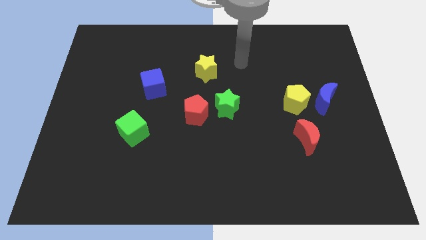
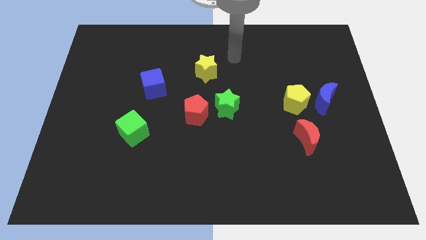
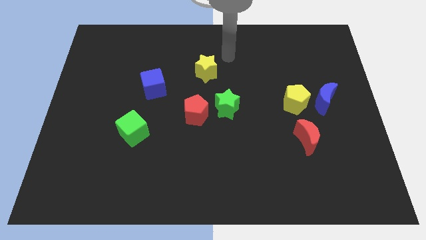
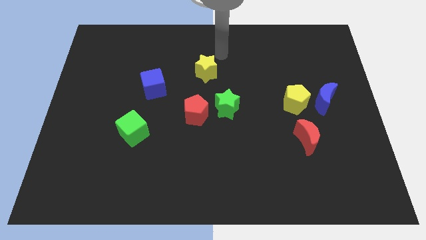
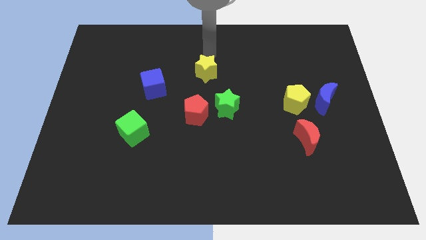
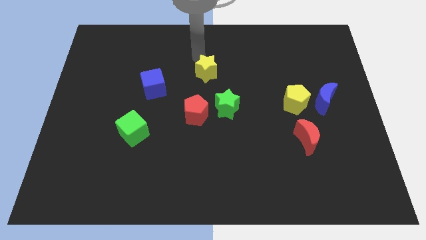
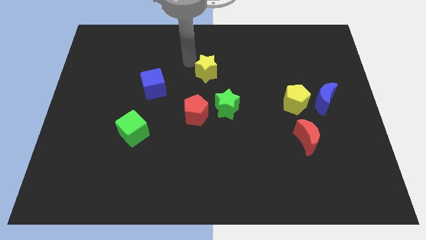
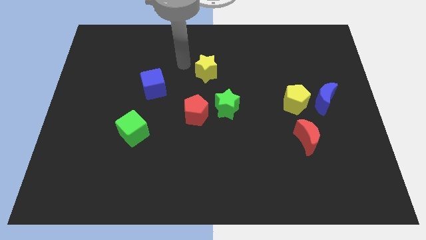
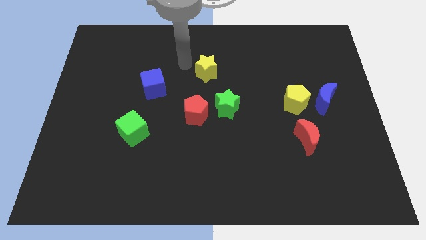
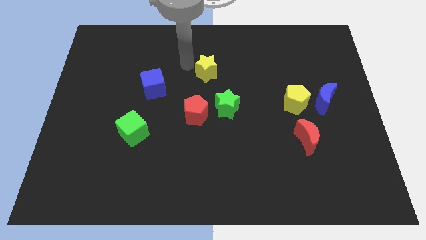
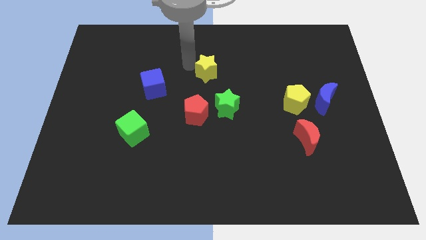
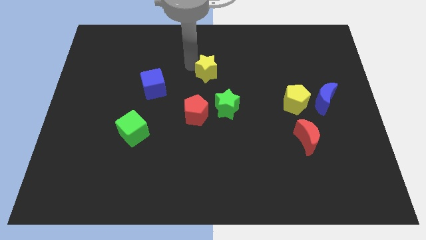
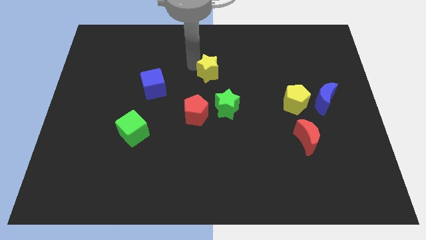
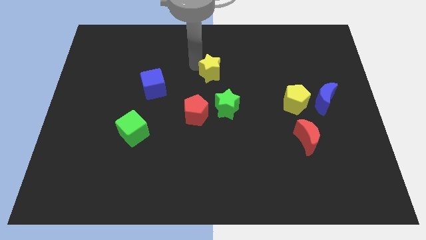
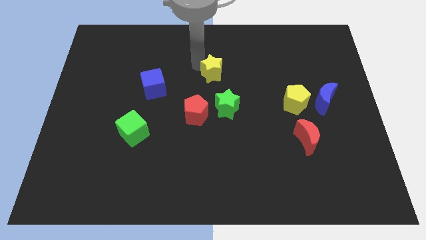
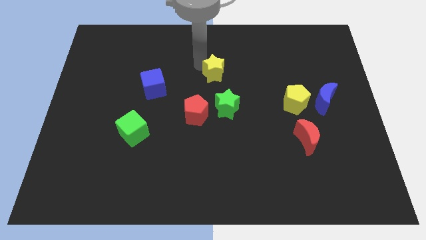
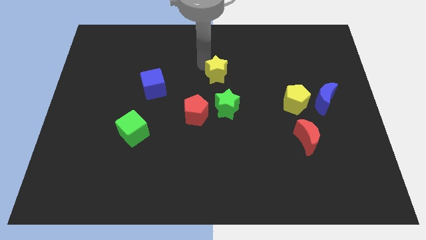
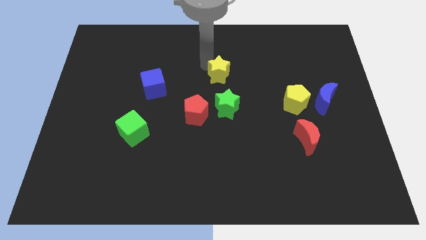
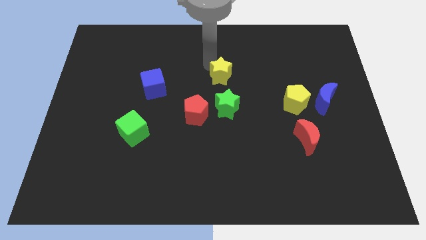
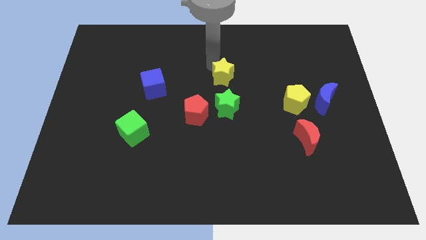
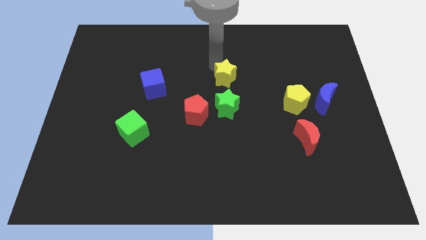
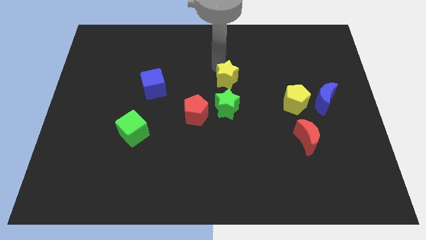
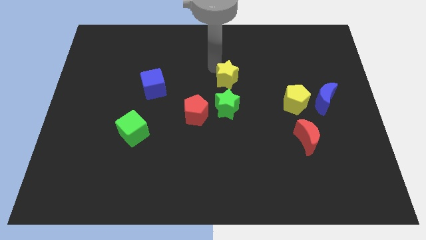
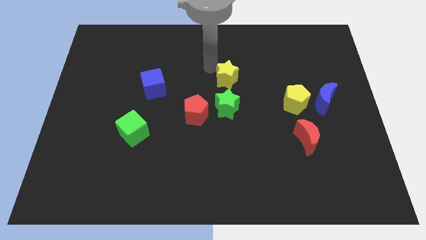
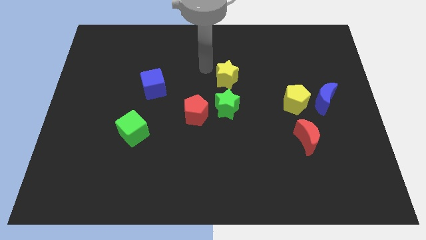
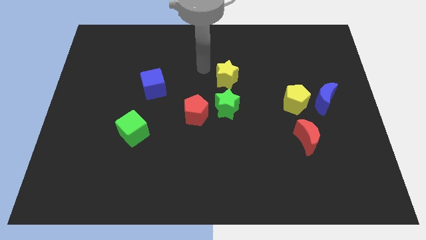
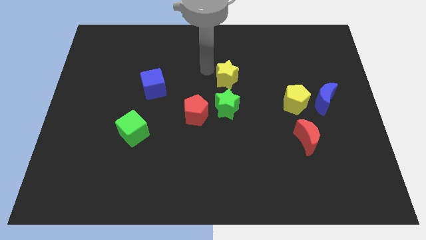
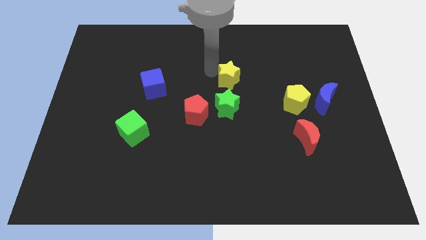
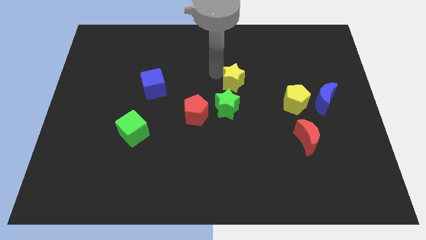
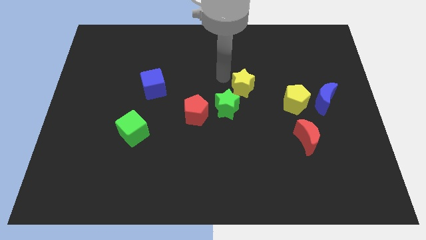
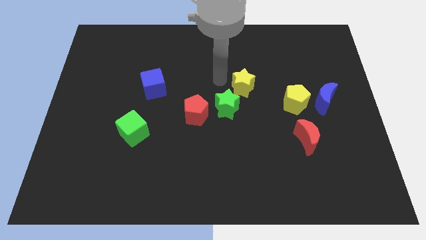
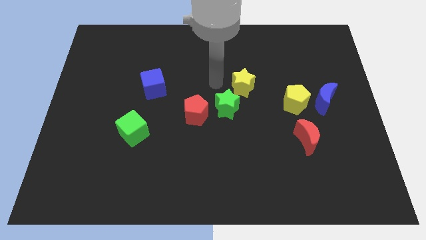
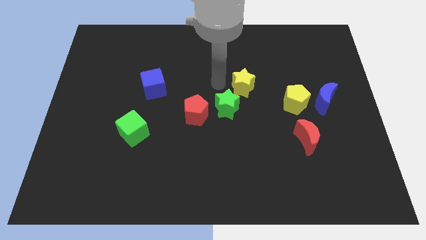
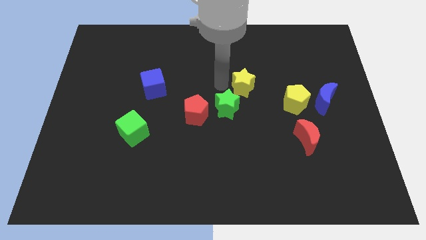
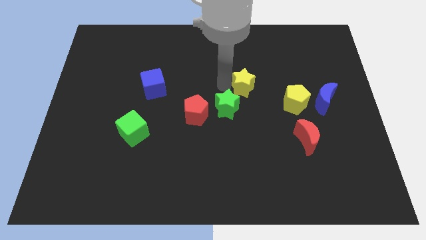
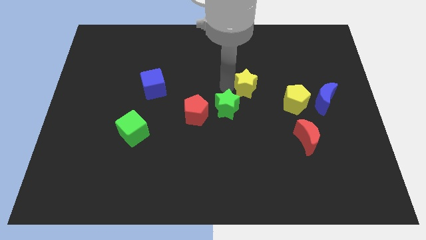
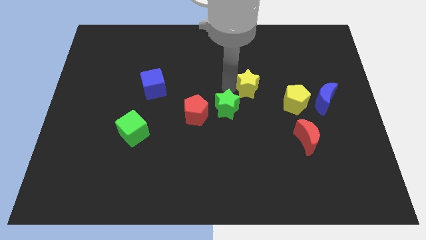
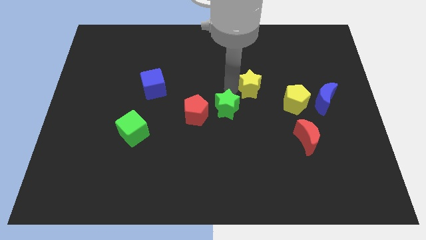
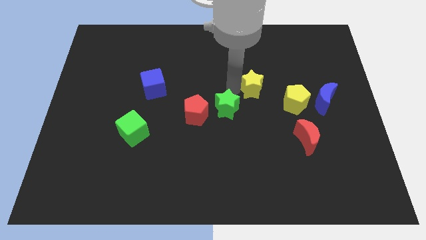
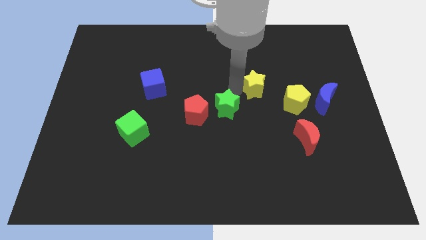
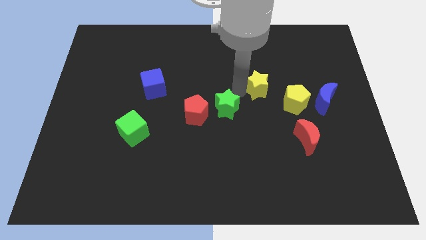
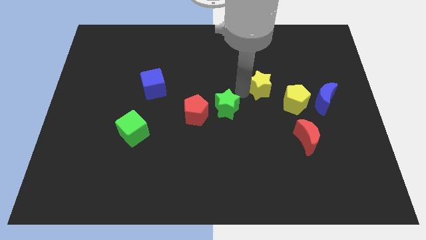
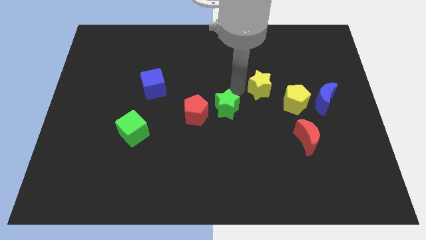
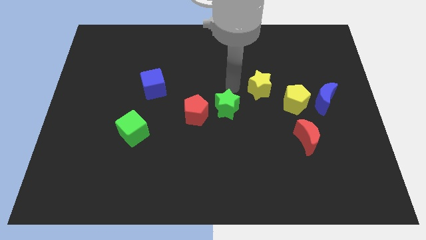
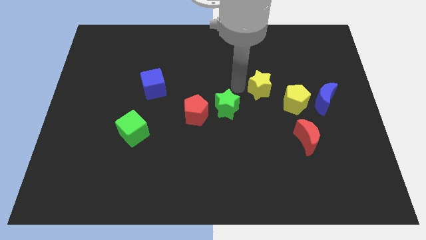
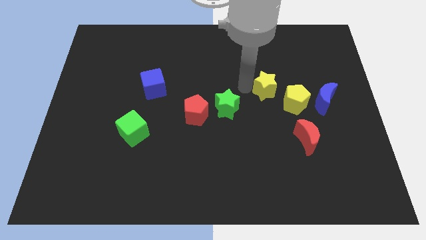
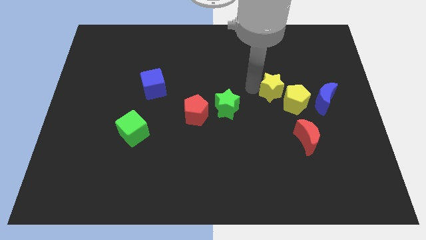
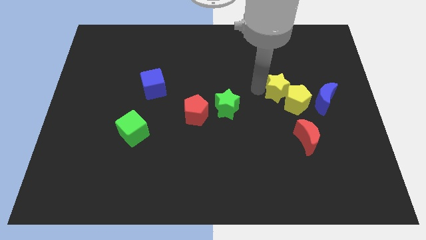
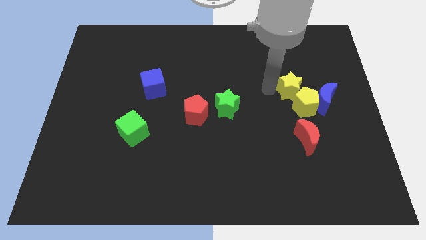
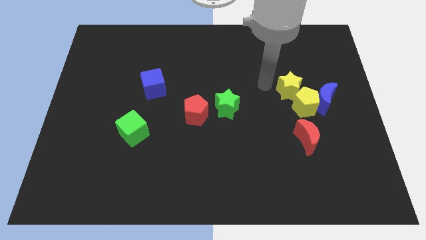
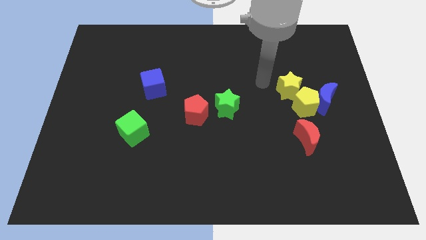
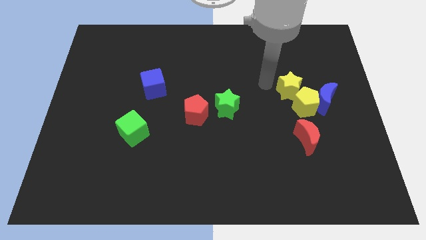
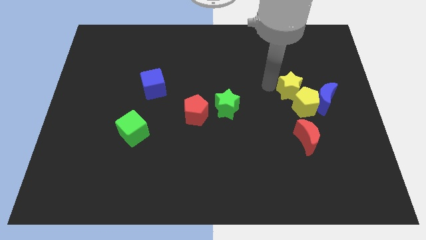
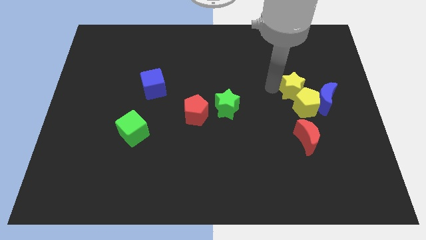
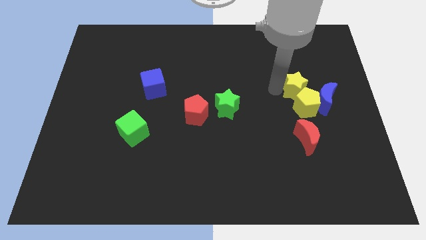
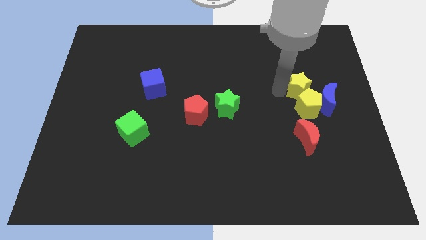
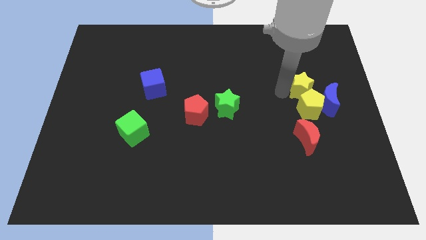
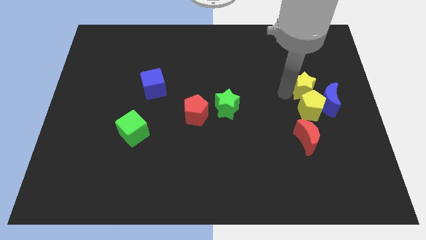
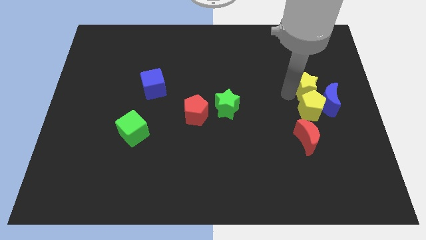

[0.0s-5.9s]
move the yellow star close to the blue moon

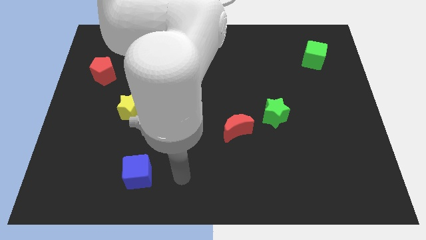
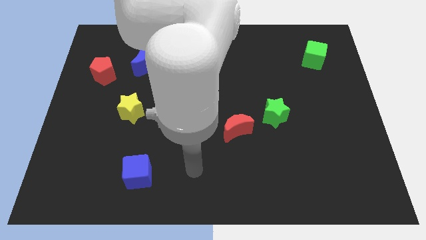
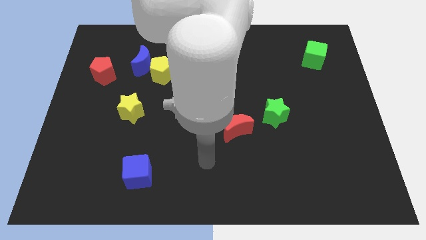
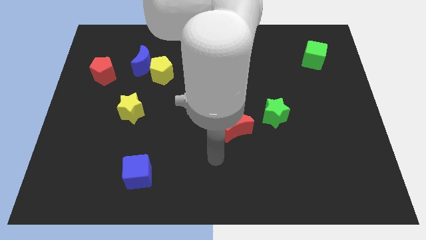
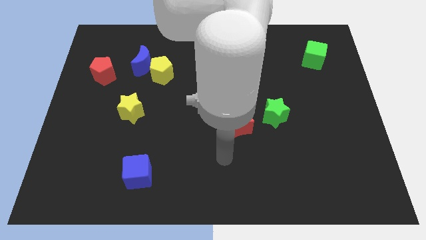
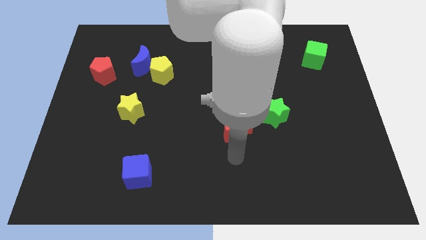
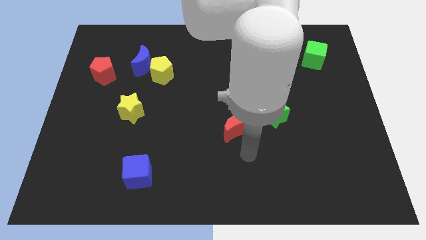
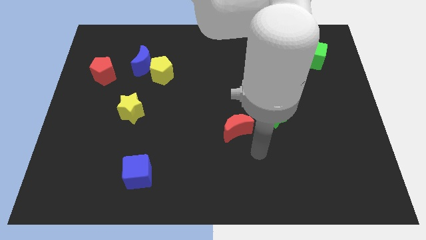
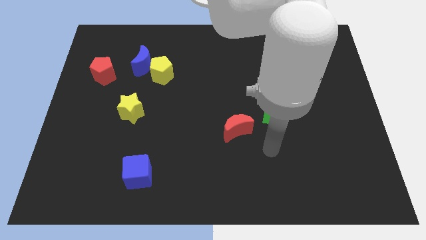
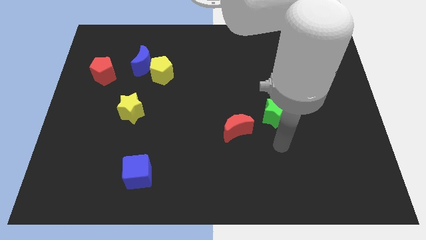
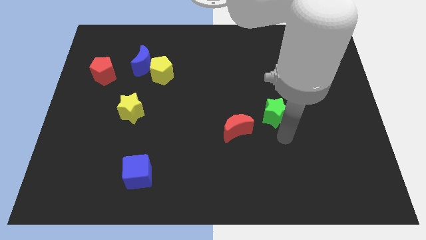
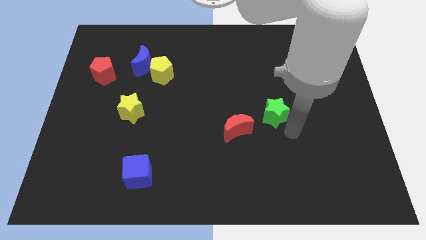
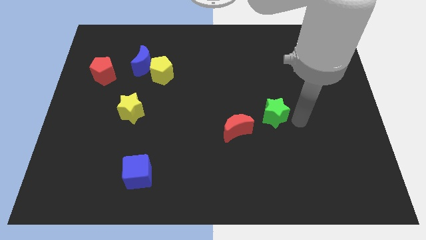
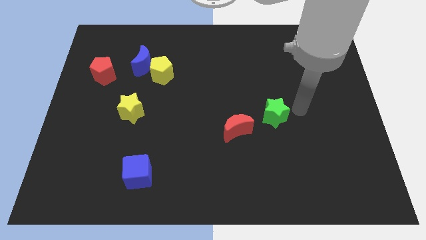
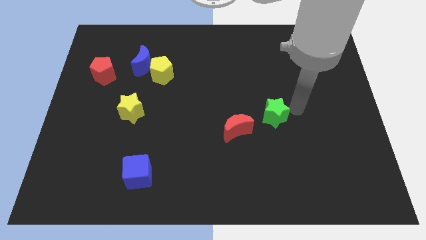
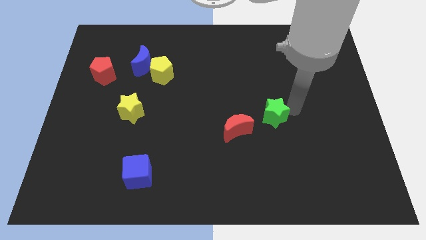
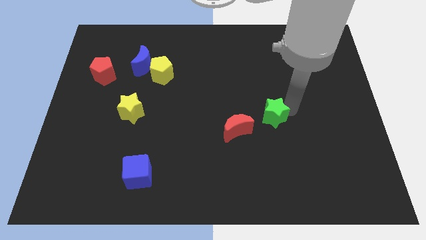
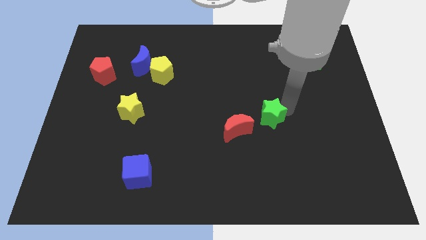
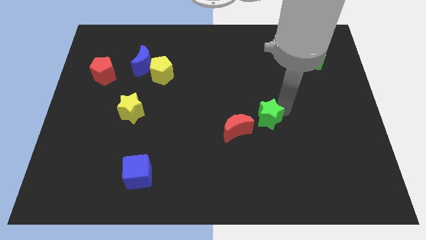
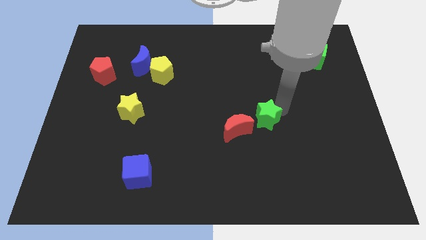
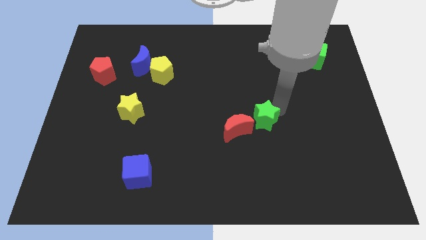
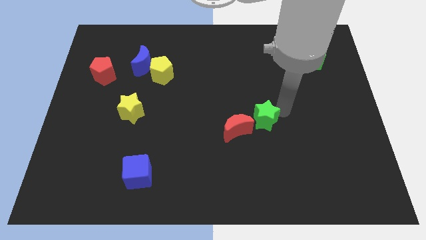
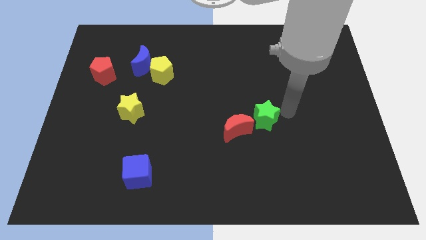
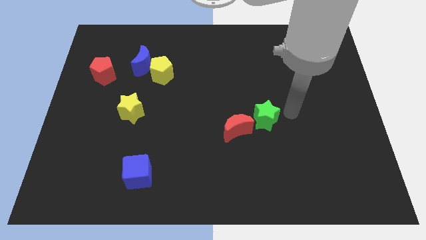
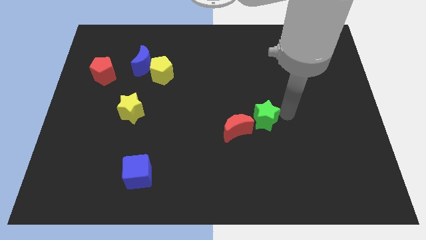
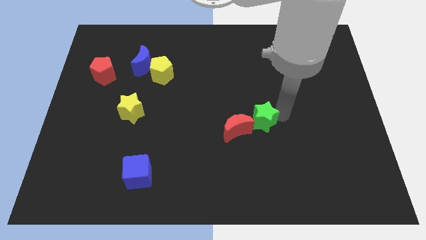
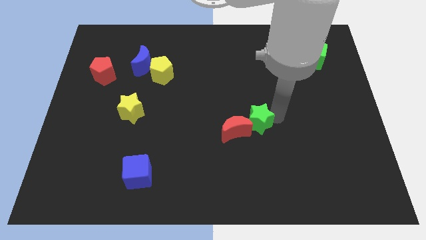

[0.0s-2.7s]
move the green star close to the red moon
